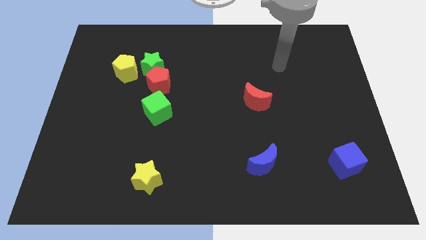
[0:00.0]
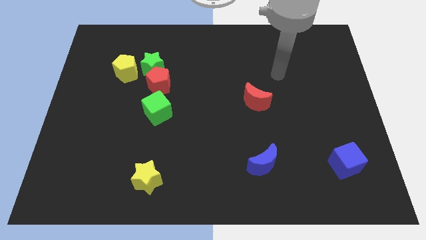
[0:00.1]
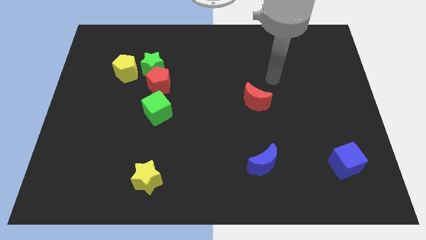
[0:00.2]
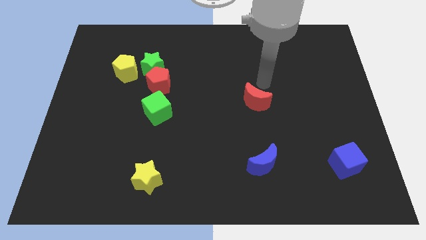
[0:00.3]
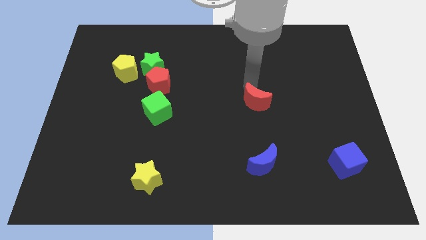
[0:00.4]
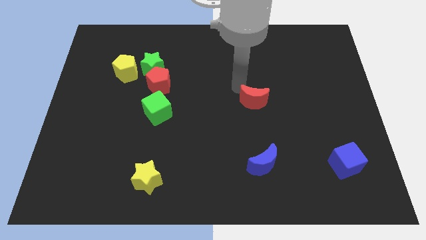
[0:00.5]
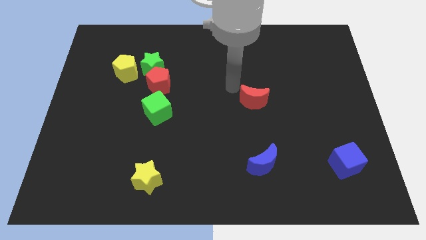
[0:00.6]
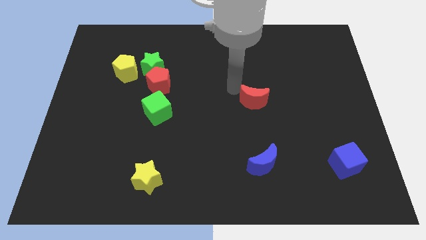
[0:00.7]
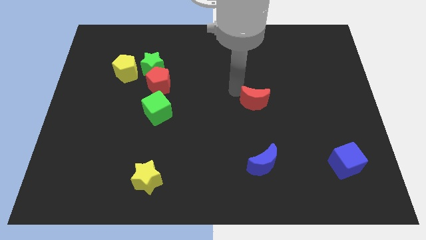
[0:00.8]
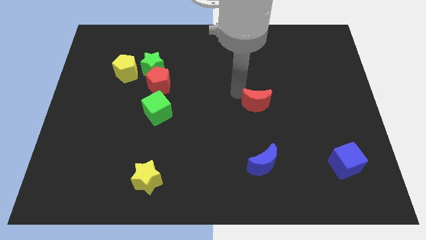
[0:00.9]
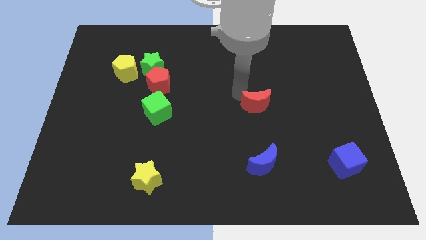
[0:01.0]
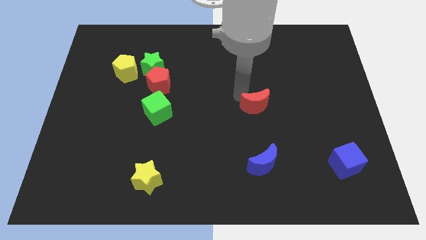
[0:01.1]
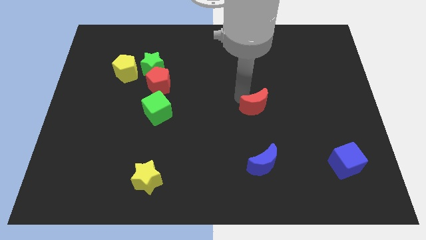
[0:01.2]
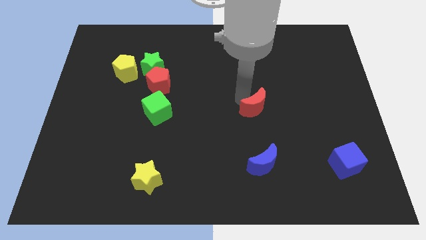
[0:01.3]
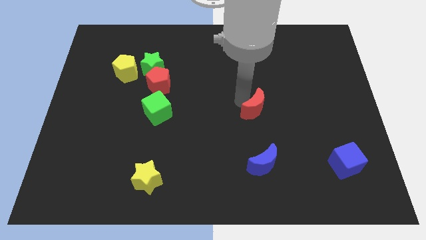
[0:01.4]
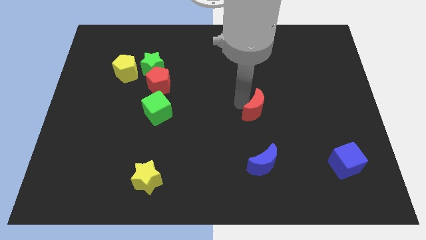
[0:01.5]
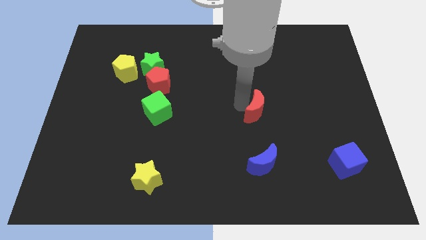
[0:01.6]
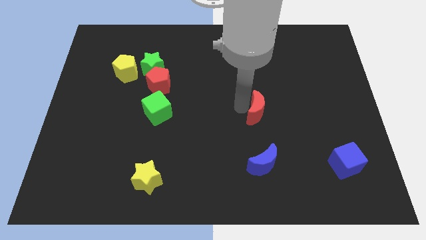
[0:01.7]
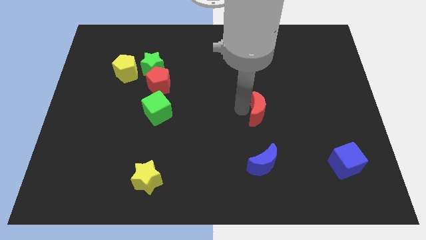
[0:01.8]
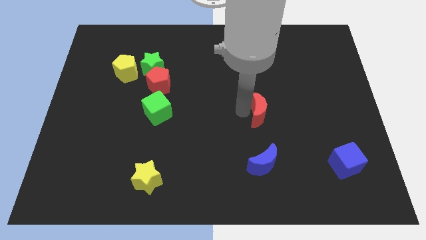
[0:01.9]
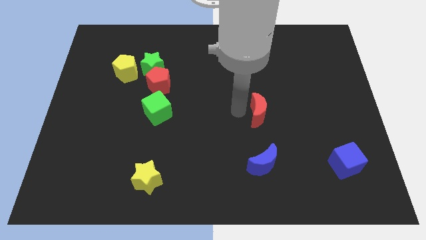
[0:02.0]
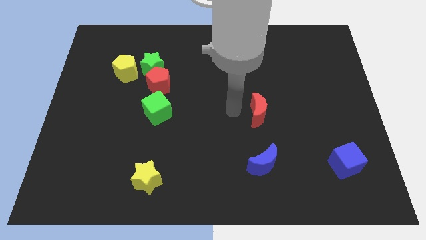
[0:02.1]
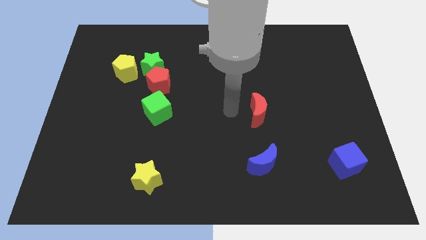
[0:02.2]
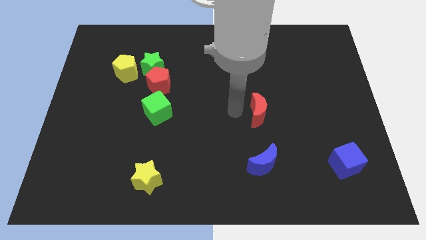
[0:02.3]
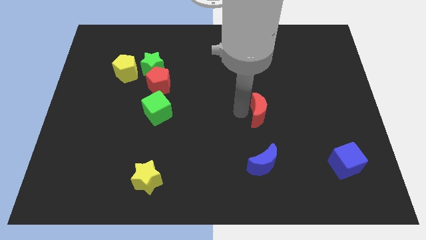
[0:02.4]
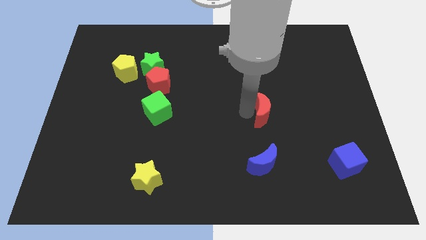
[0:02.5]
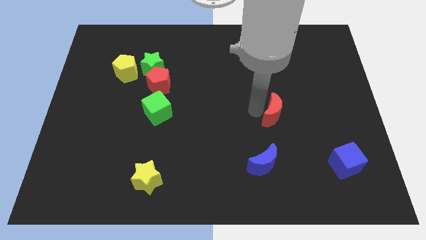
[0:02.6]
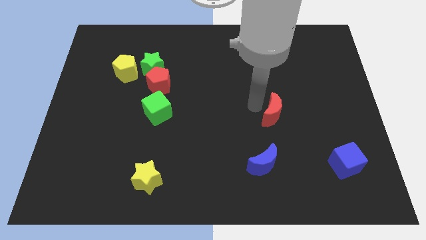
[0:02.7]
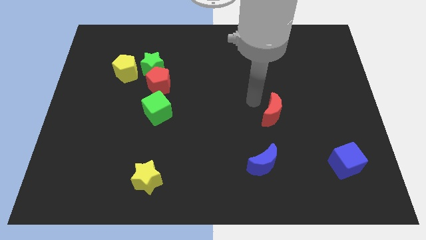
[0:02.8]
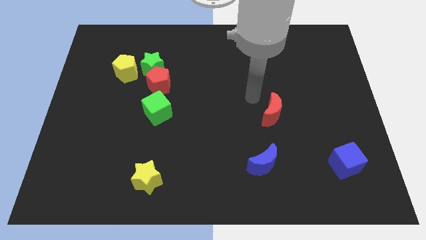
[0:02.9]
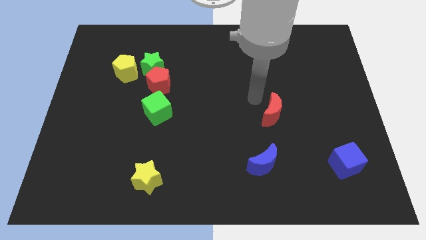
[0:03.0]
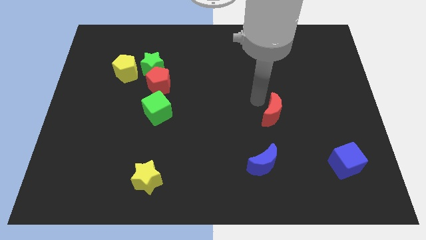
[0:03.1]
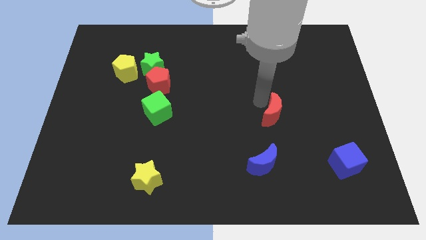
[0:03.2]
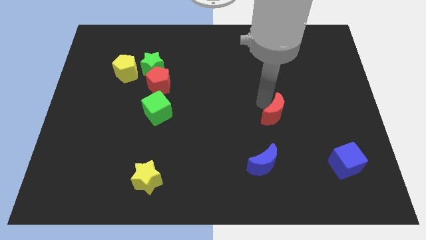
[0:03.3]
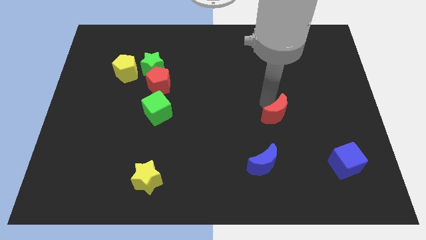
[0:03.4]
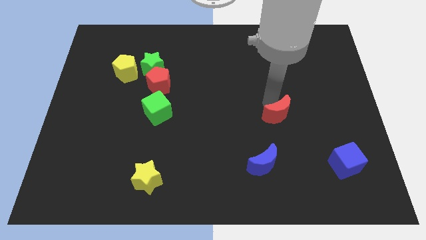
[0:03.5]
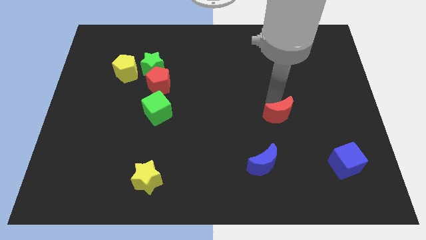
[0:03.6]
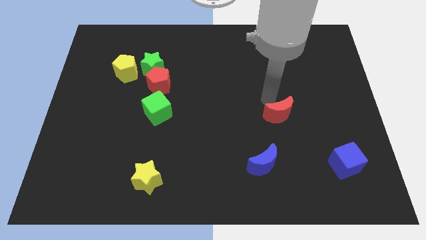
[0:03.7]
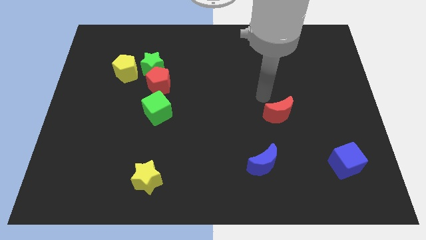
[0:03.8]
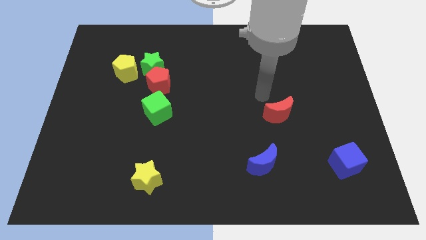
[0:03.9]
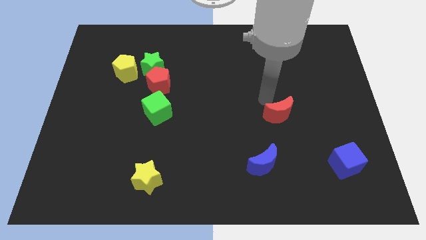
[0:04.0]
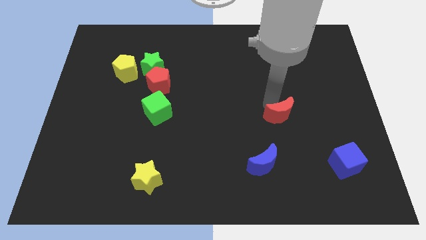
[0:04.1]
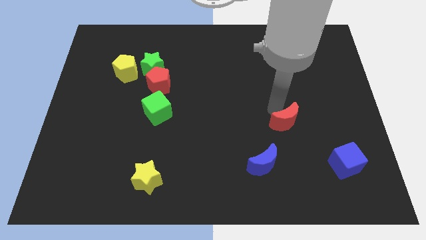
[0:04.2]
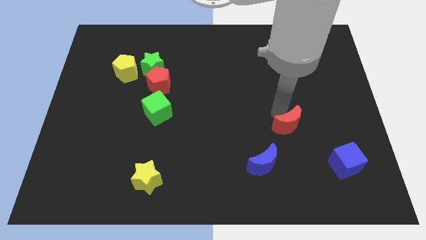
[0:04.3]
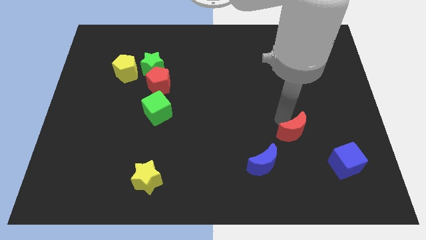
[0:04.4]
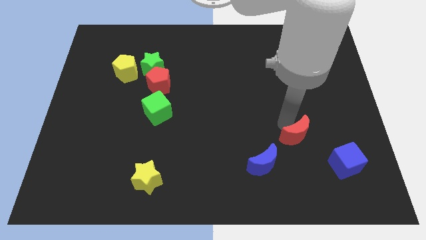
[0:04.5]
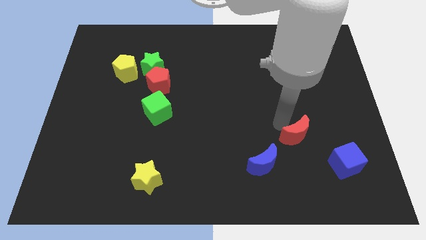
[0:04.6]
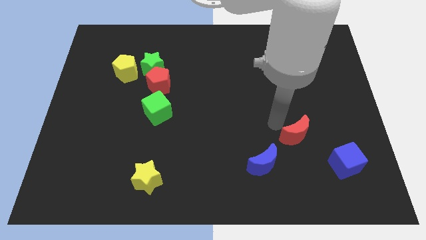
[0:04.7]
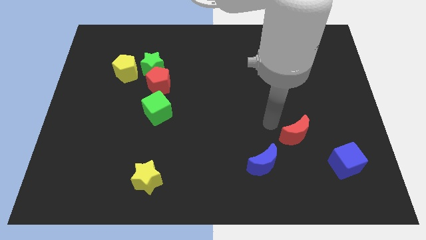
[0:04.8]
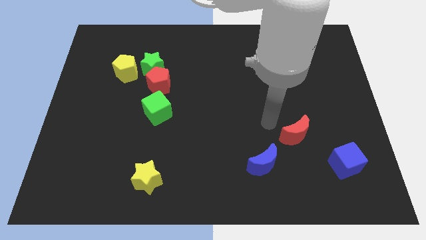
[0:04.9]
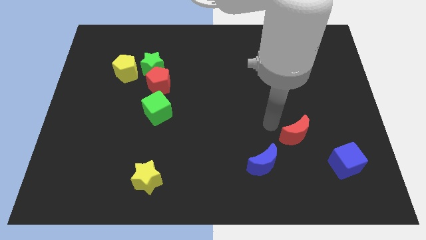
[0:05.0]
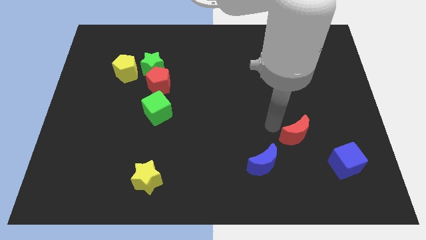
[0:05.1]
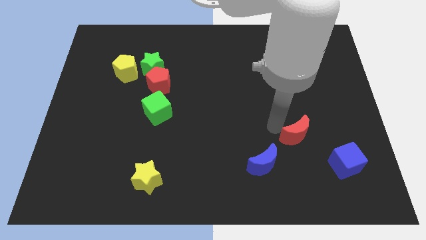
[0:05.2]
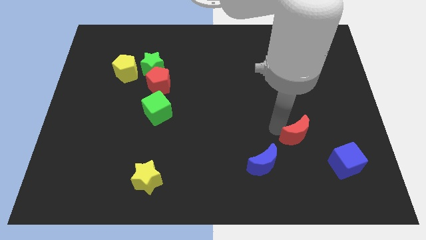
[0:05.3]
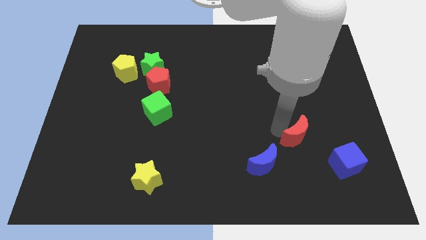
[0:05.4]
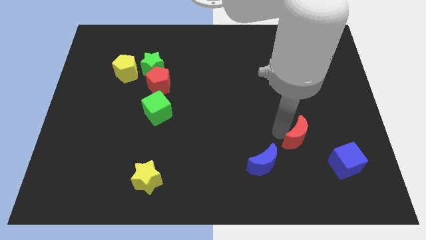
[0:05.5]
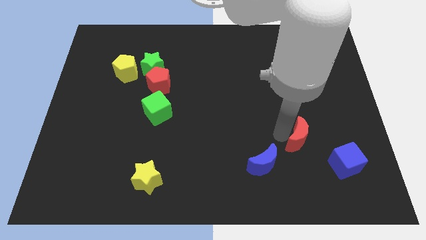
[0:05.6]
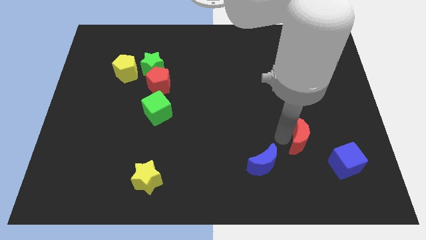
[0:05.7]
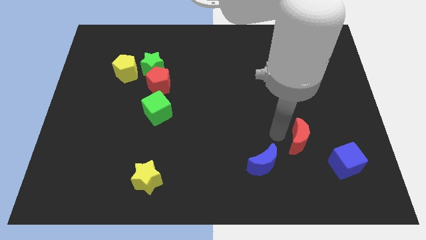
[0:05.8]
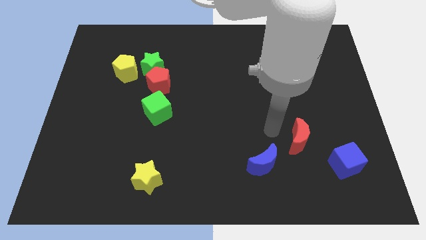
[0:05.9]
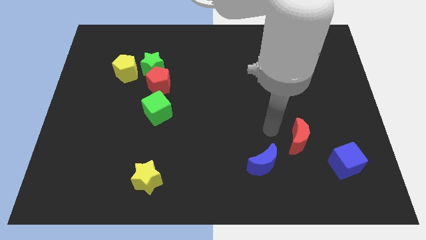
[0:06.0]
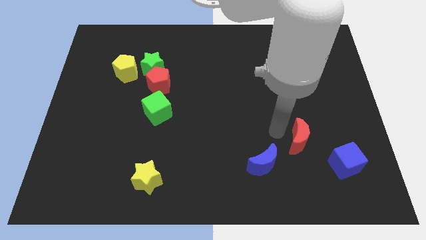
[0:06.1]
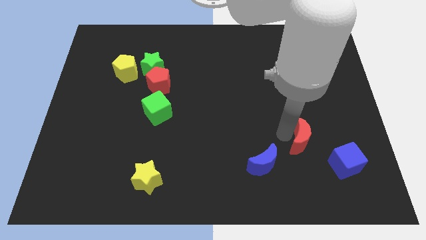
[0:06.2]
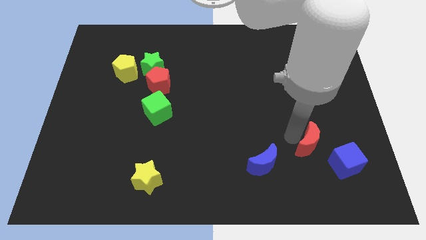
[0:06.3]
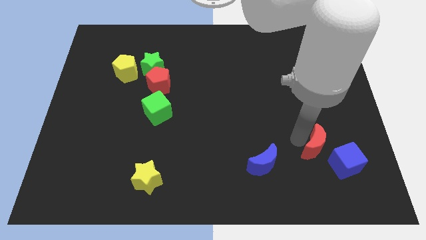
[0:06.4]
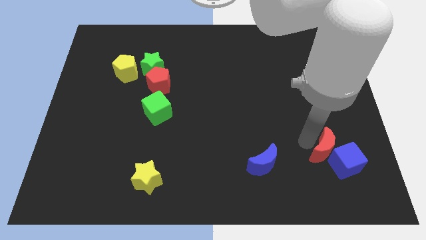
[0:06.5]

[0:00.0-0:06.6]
slide the red moon to the blue cube

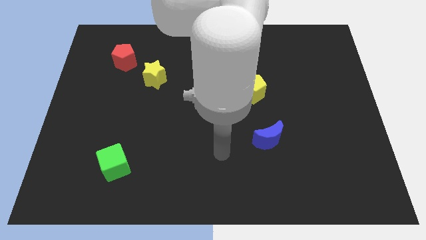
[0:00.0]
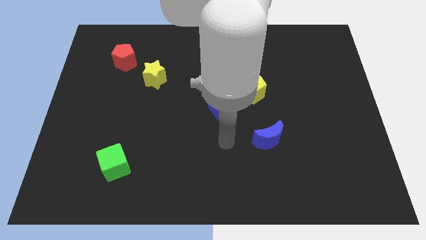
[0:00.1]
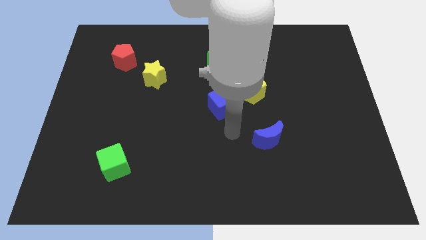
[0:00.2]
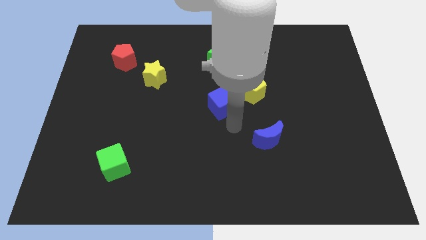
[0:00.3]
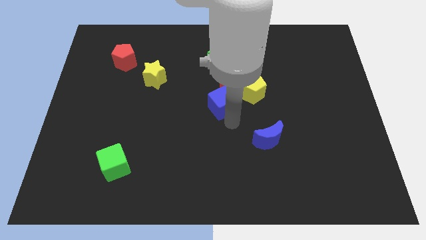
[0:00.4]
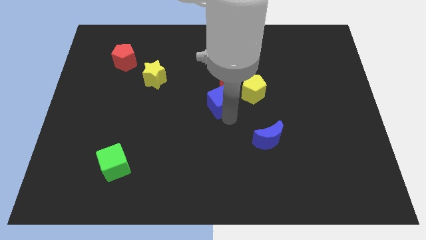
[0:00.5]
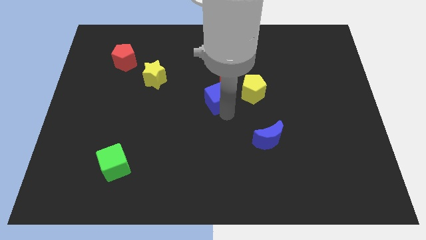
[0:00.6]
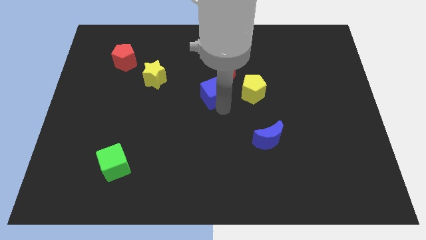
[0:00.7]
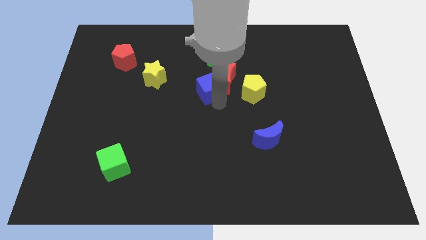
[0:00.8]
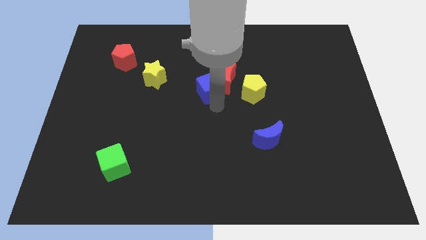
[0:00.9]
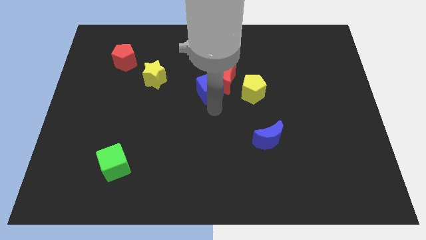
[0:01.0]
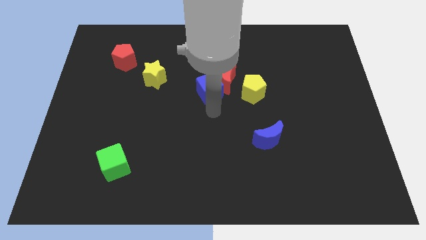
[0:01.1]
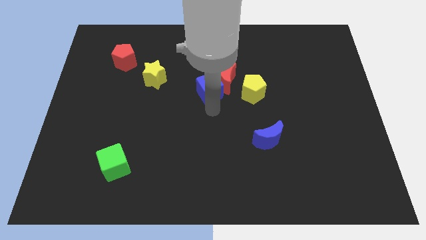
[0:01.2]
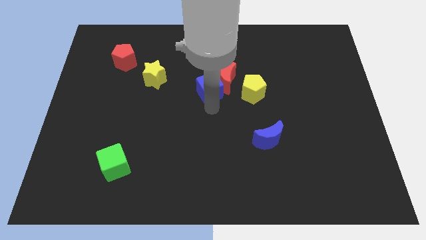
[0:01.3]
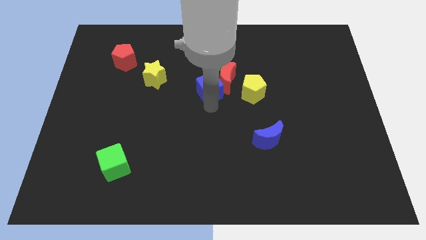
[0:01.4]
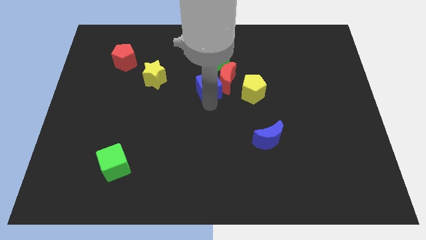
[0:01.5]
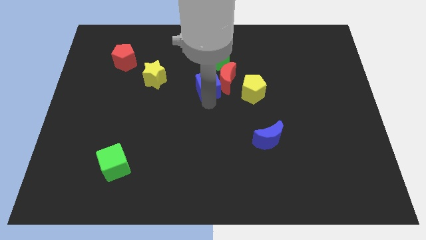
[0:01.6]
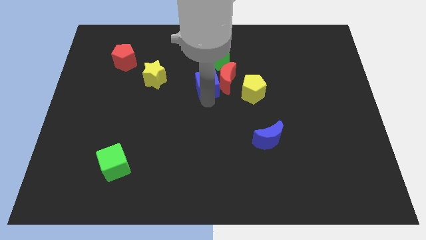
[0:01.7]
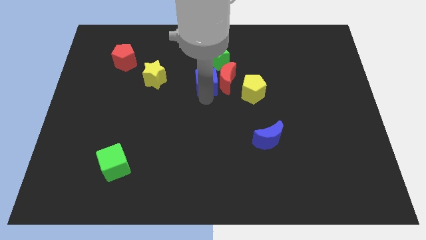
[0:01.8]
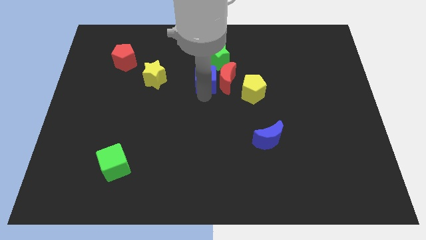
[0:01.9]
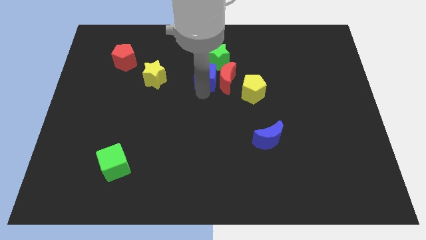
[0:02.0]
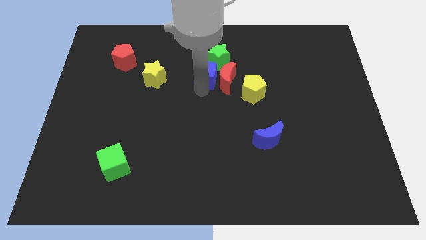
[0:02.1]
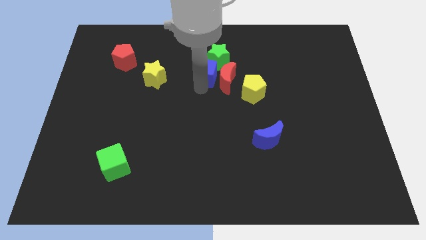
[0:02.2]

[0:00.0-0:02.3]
push the blue cube next to the green star
